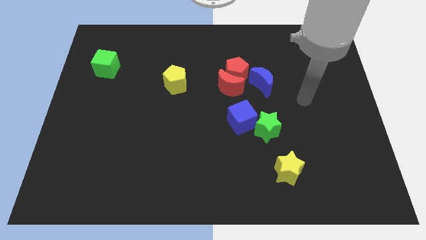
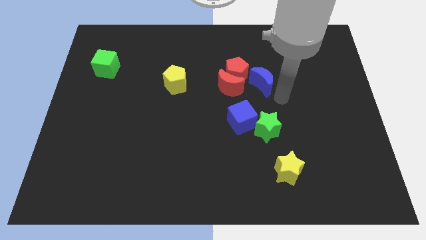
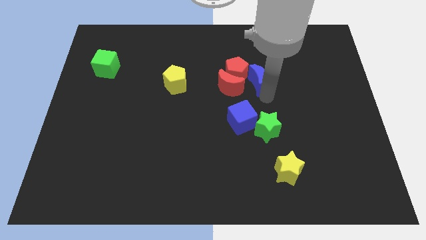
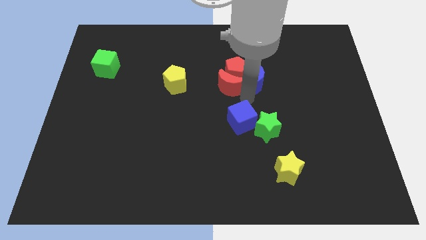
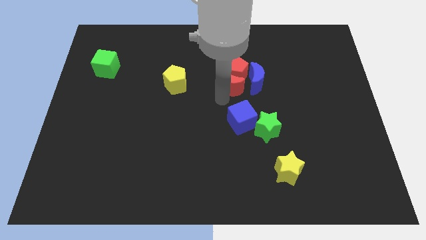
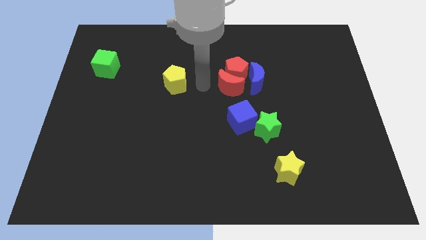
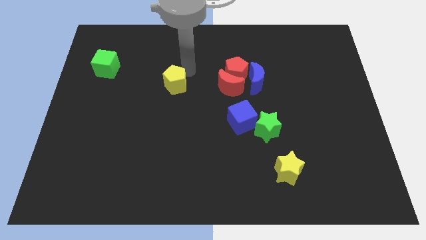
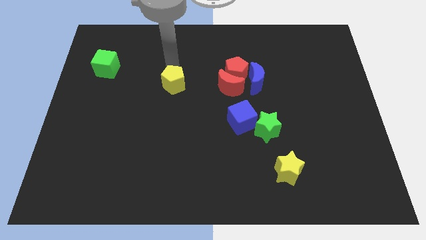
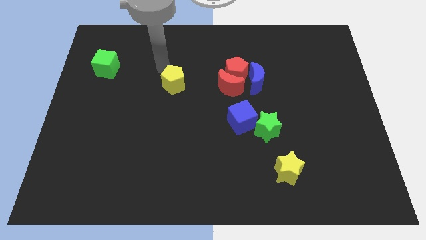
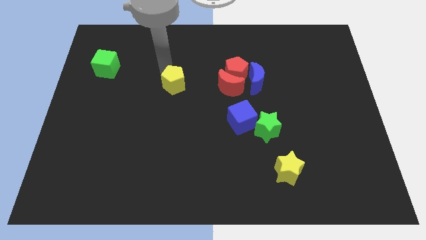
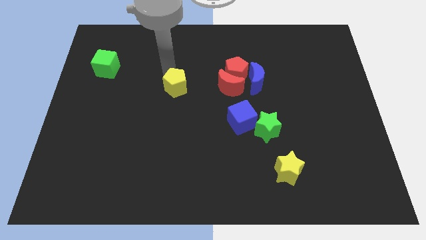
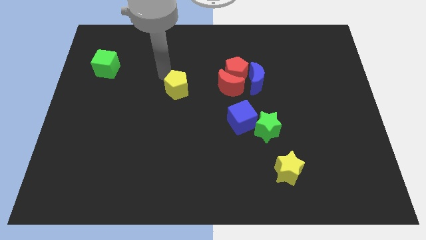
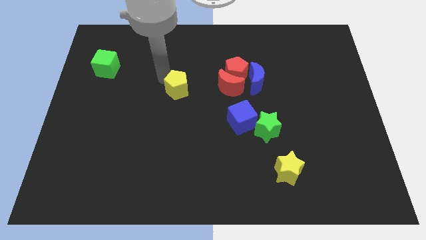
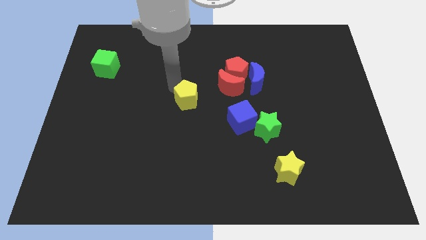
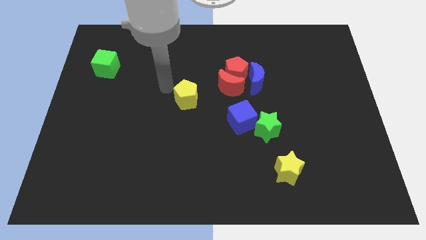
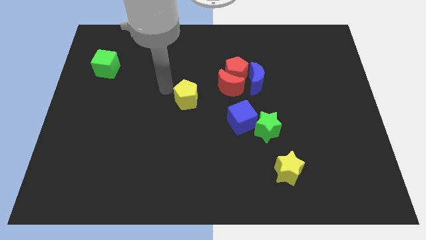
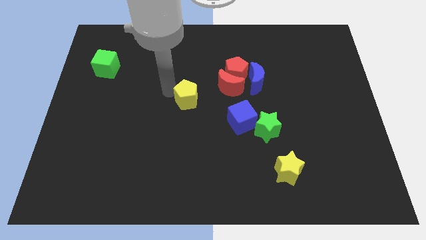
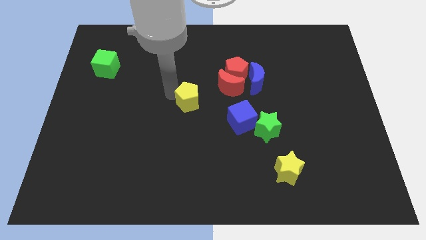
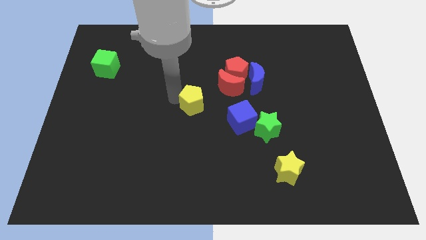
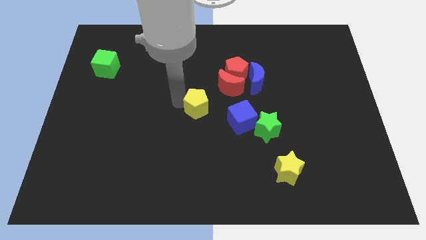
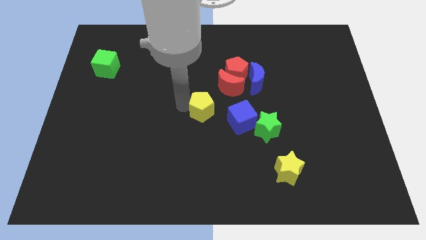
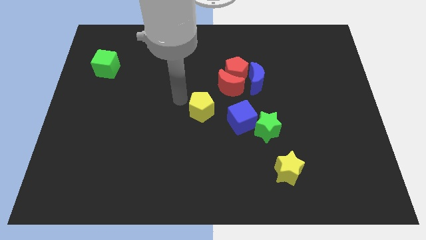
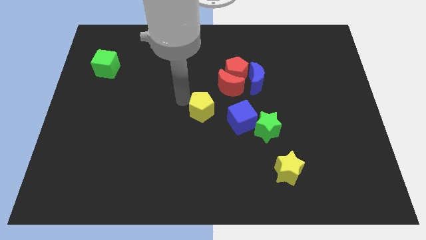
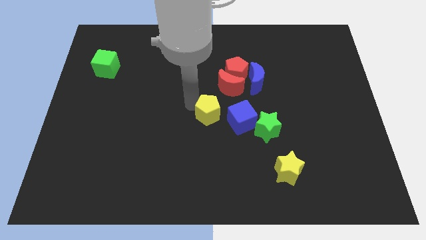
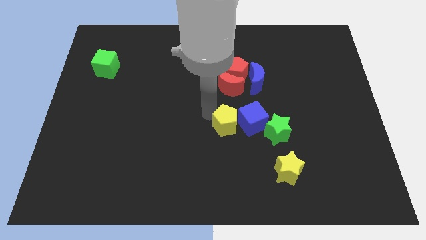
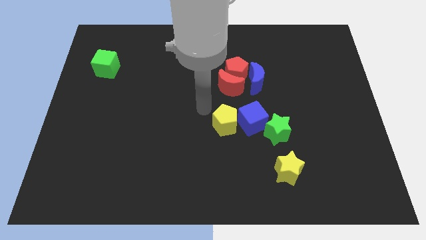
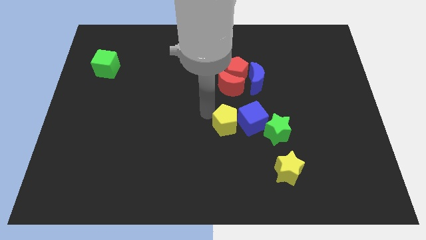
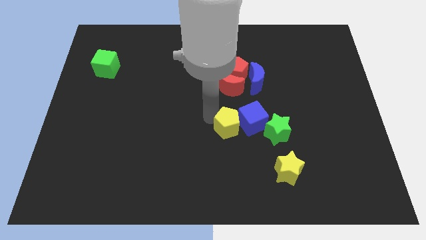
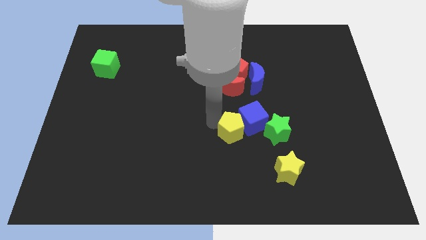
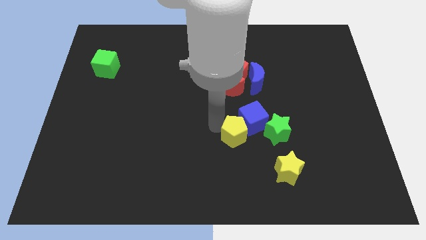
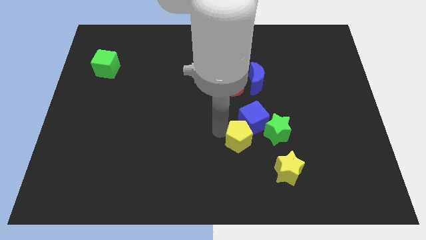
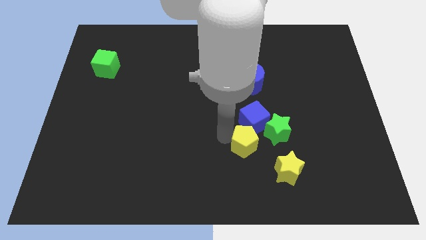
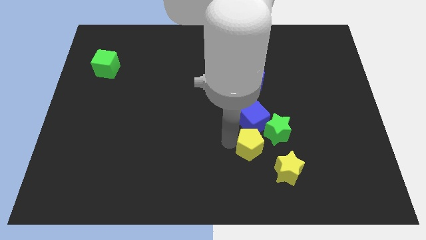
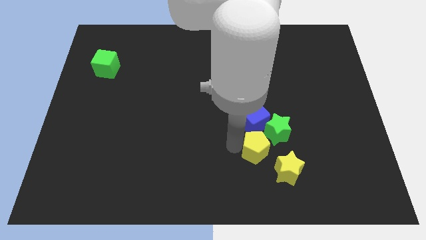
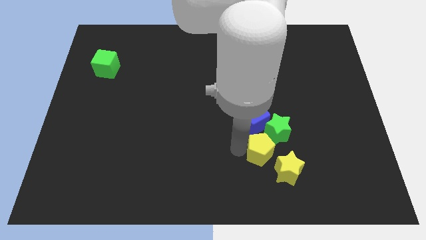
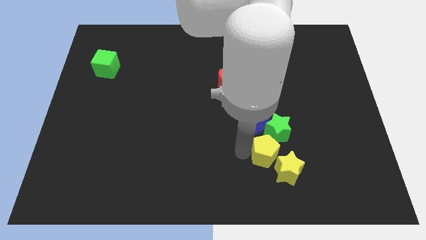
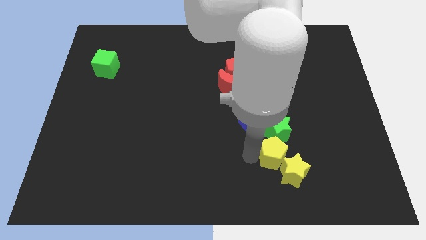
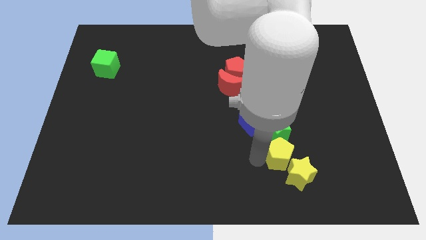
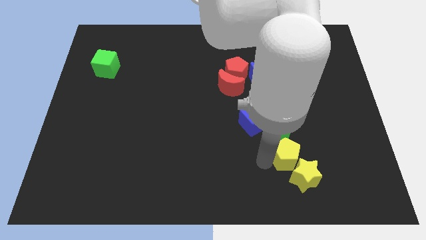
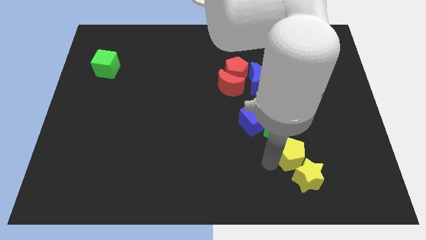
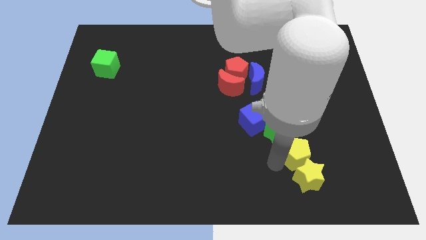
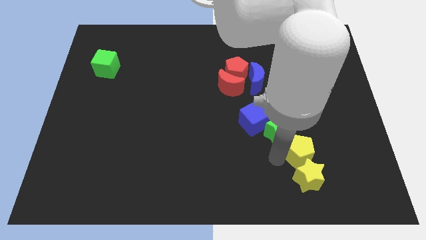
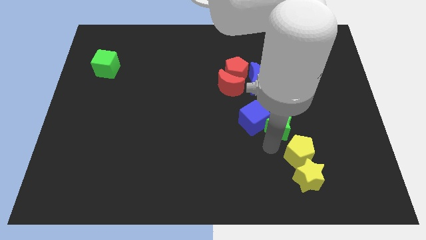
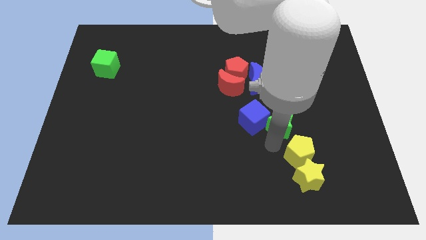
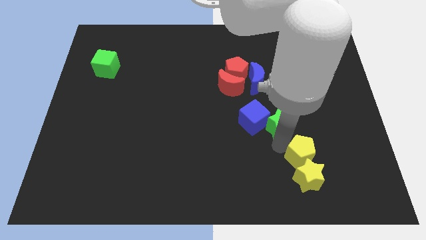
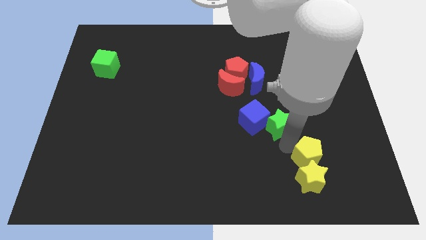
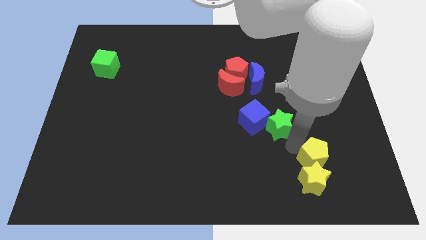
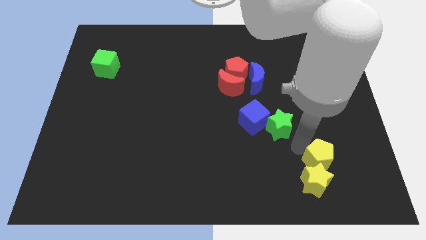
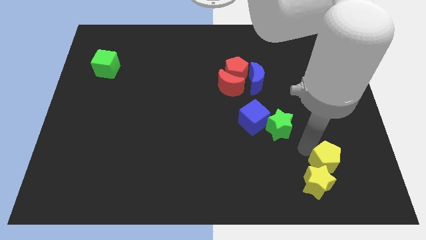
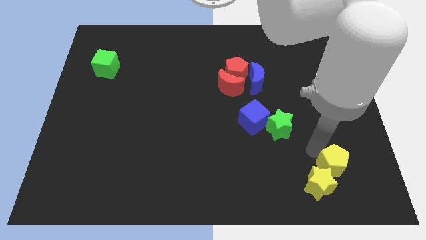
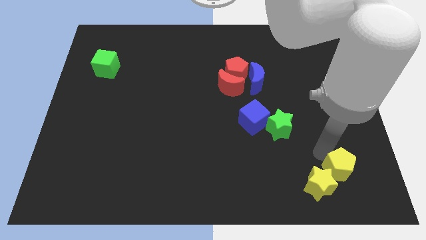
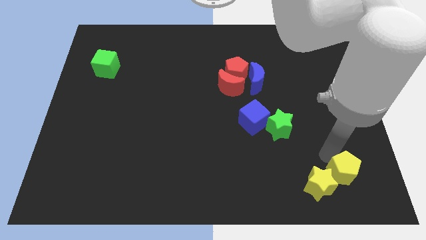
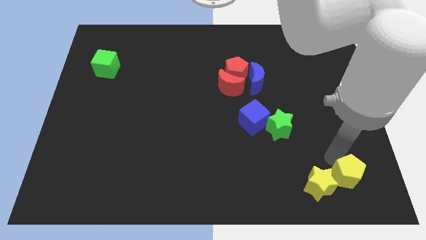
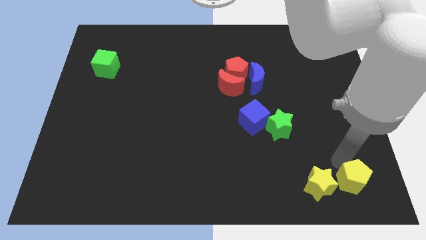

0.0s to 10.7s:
put the yellow pentagon to the bottom right of the board
